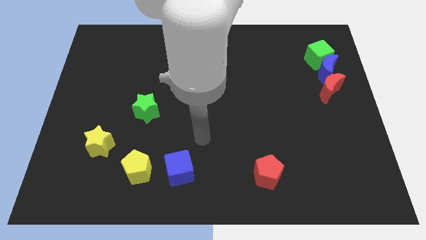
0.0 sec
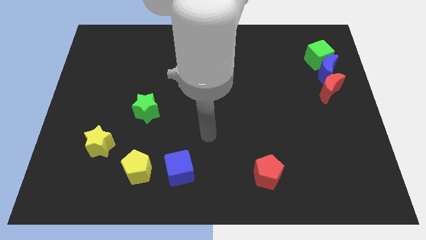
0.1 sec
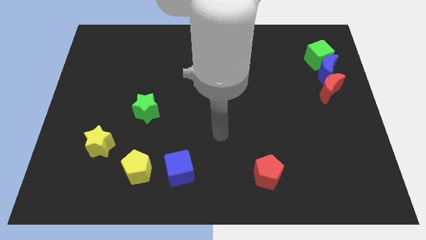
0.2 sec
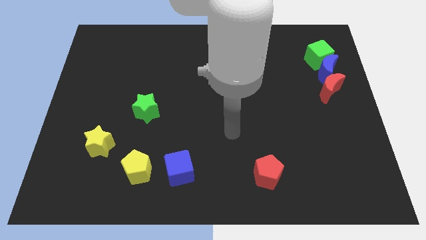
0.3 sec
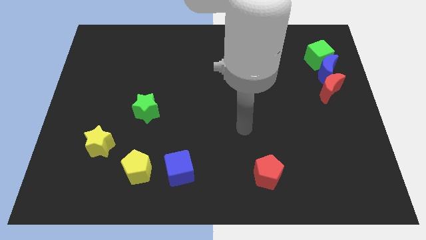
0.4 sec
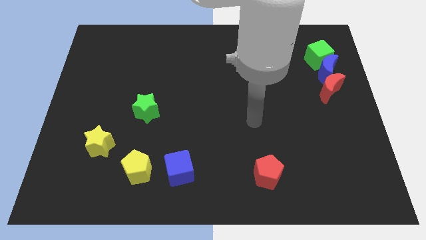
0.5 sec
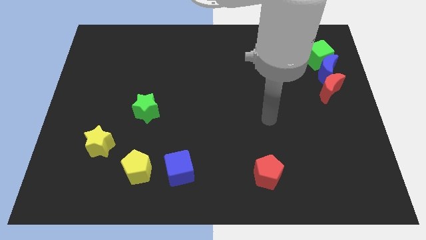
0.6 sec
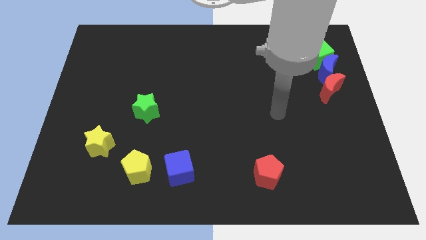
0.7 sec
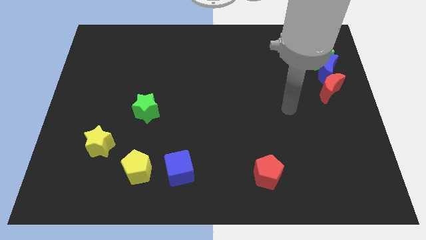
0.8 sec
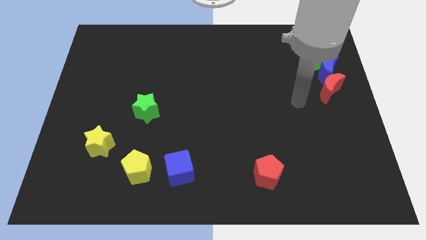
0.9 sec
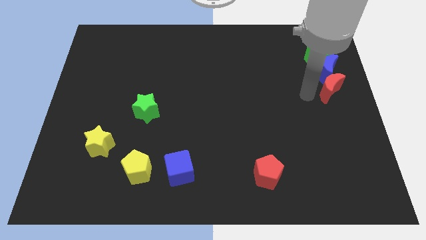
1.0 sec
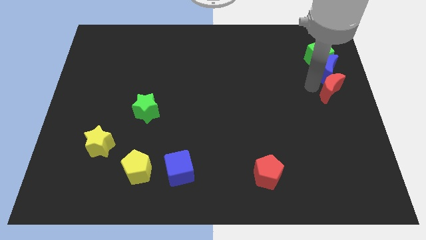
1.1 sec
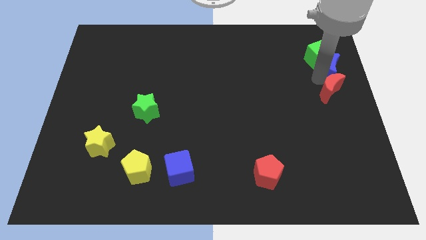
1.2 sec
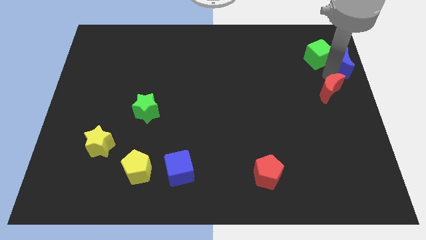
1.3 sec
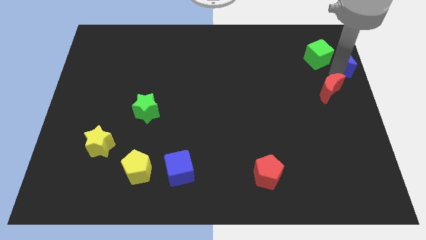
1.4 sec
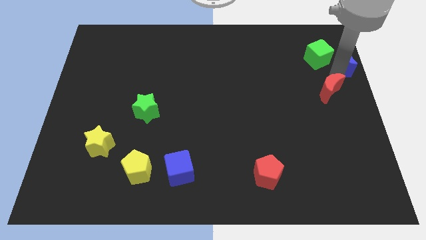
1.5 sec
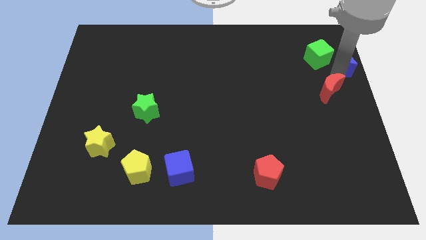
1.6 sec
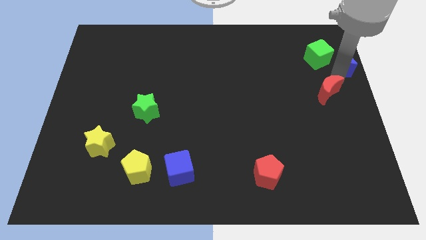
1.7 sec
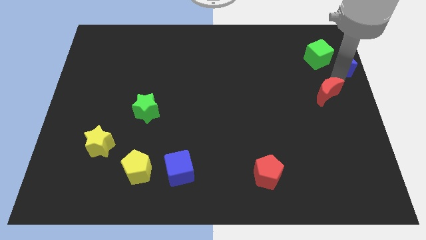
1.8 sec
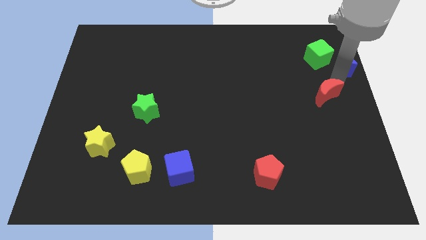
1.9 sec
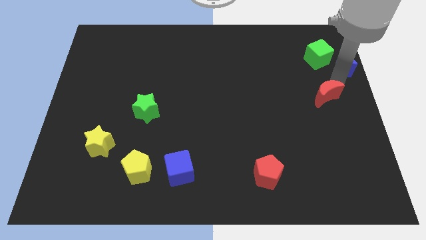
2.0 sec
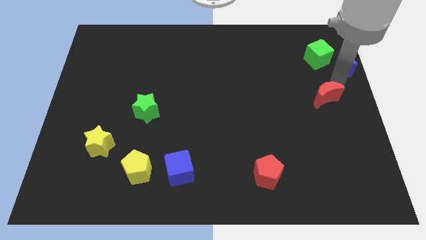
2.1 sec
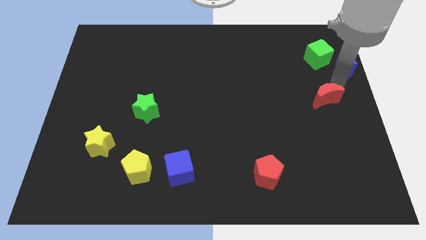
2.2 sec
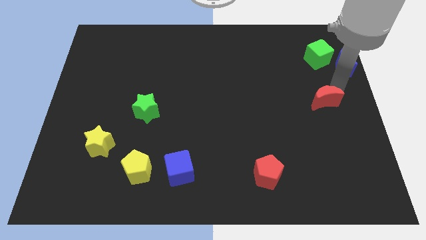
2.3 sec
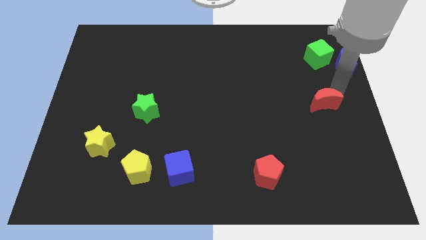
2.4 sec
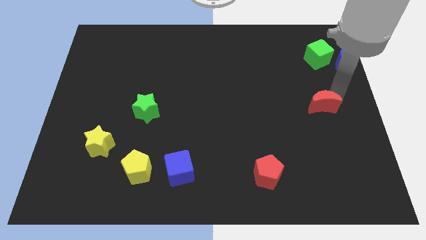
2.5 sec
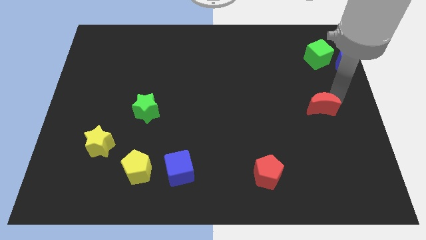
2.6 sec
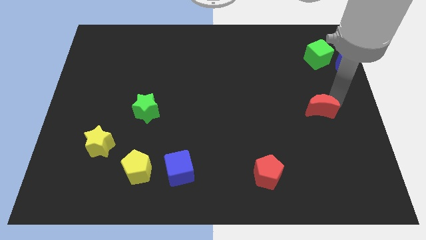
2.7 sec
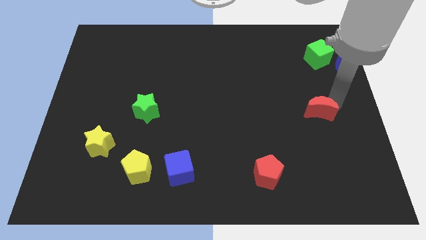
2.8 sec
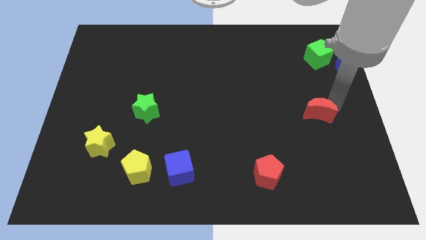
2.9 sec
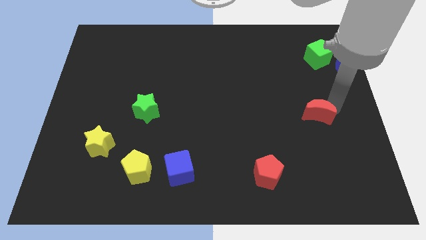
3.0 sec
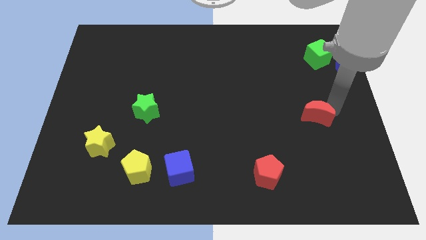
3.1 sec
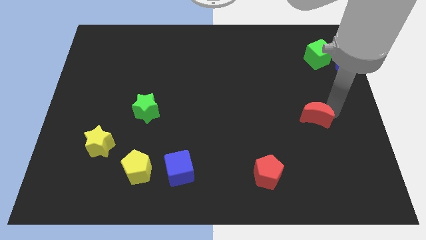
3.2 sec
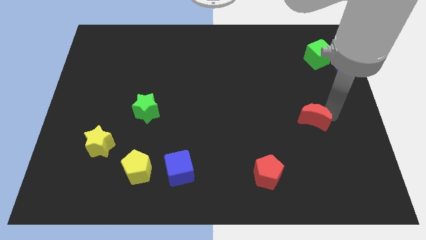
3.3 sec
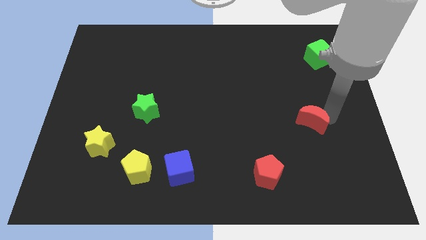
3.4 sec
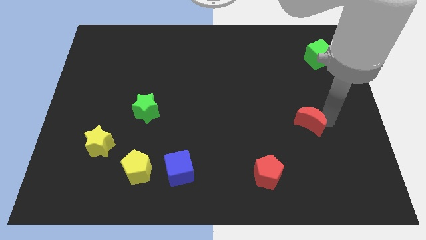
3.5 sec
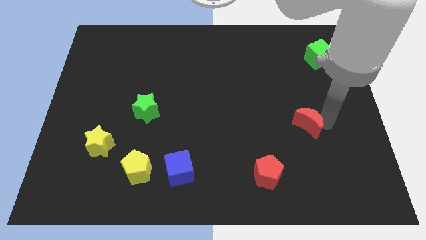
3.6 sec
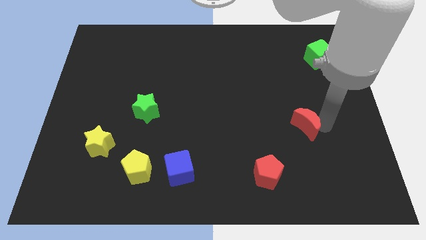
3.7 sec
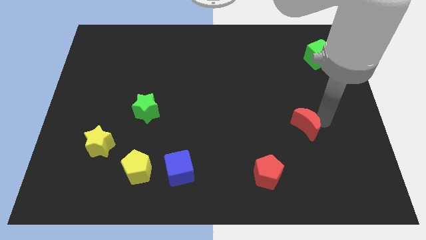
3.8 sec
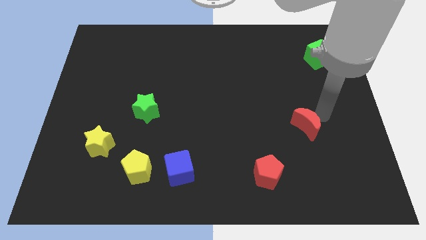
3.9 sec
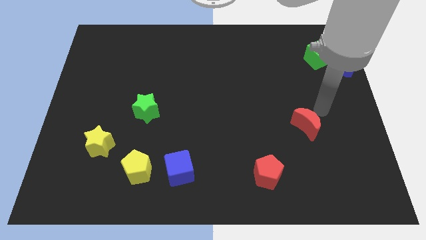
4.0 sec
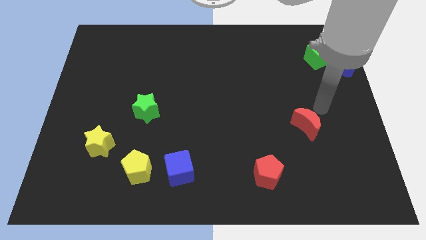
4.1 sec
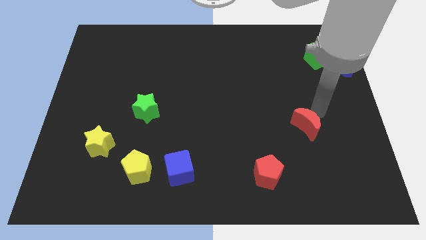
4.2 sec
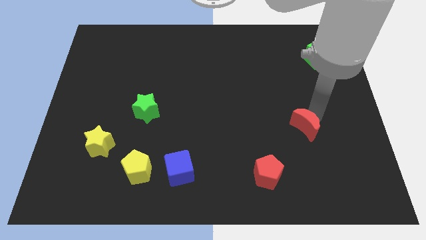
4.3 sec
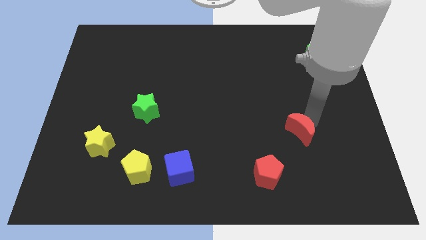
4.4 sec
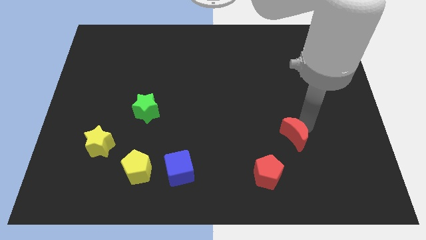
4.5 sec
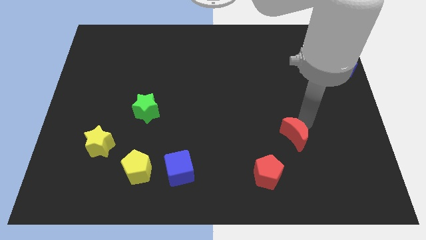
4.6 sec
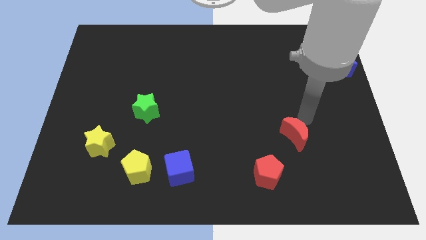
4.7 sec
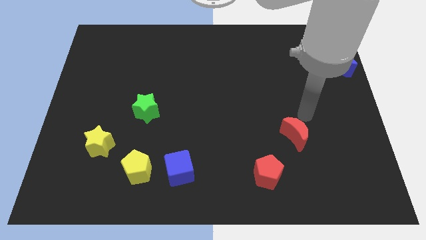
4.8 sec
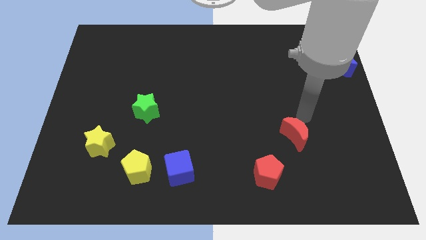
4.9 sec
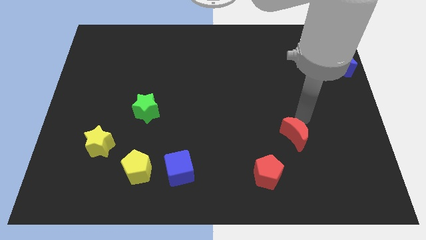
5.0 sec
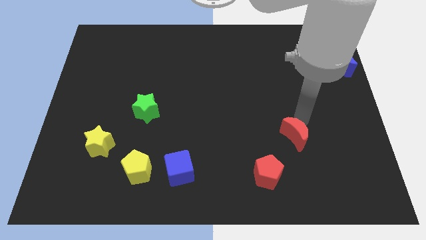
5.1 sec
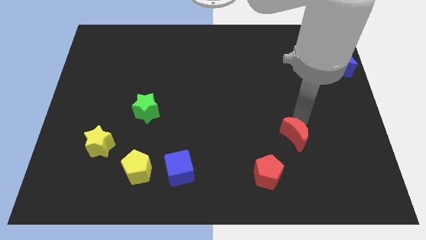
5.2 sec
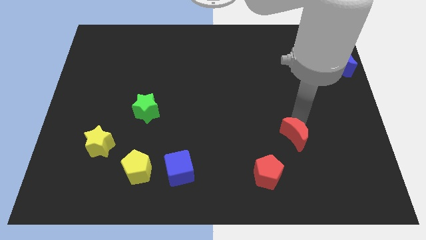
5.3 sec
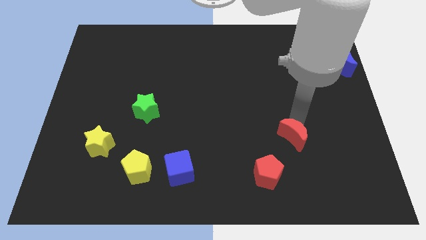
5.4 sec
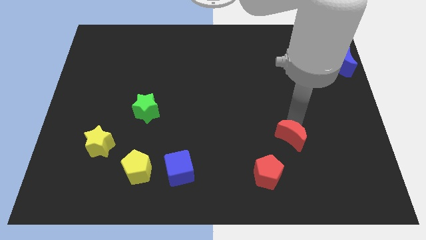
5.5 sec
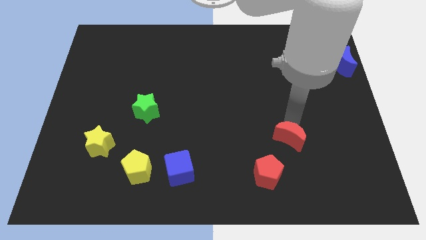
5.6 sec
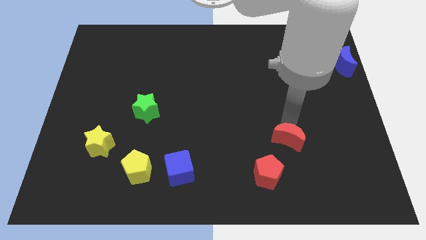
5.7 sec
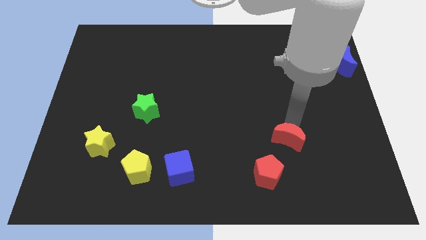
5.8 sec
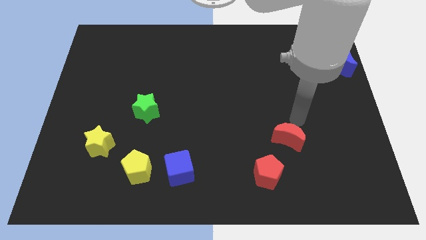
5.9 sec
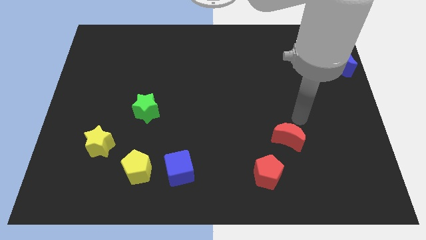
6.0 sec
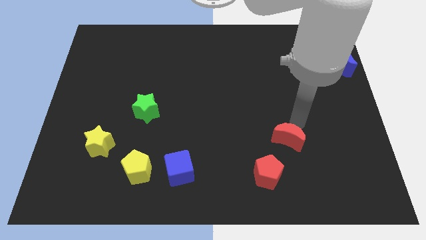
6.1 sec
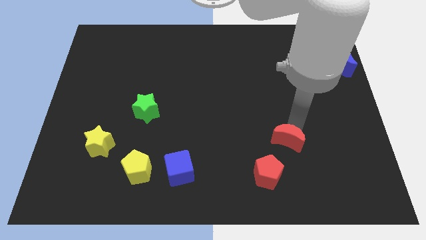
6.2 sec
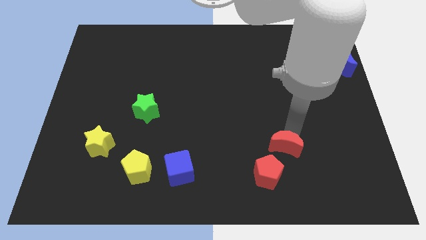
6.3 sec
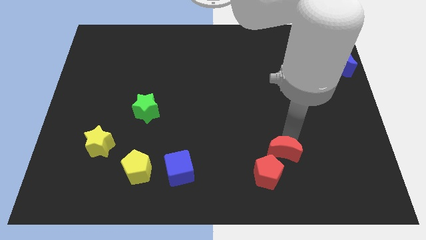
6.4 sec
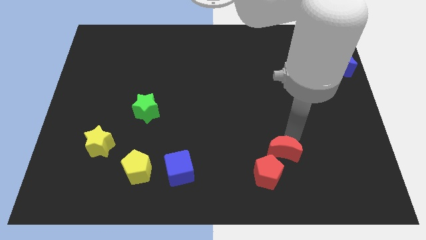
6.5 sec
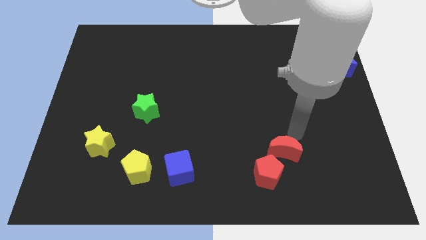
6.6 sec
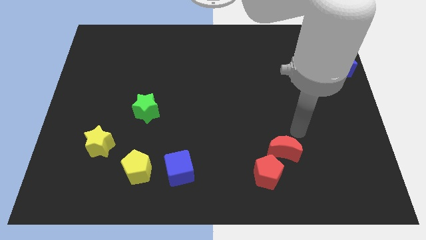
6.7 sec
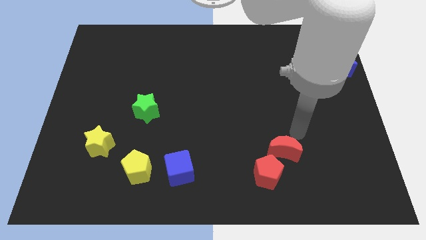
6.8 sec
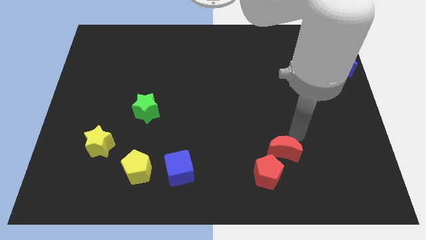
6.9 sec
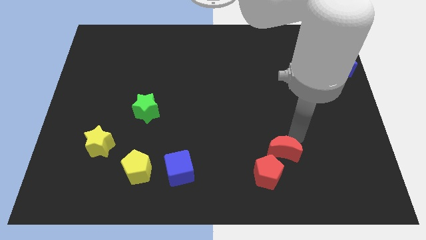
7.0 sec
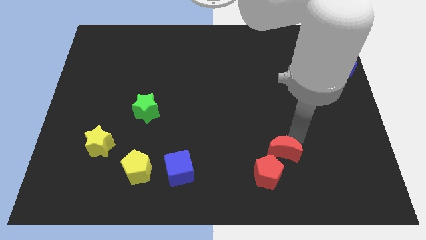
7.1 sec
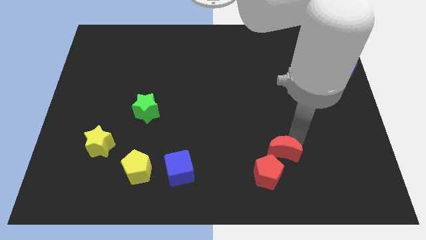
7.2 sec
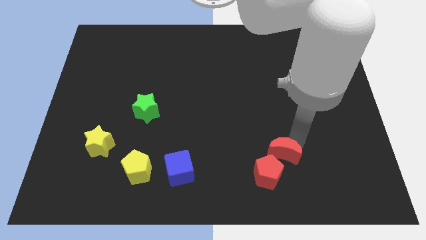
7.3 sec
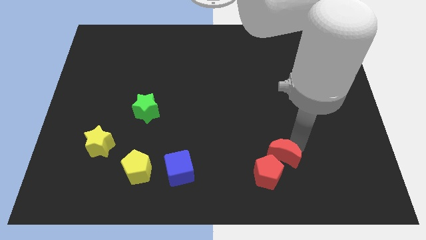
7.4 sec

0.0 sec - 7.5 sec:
put the red moon close to the red pentagon
